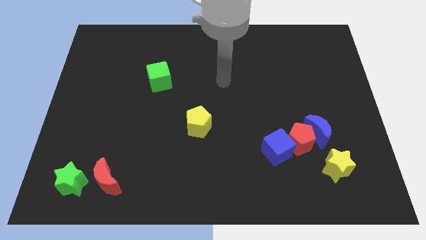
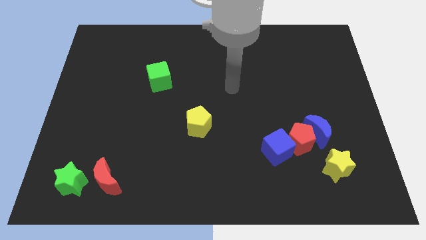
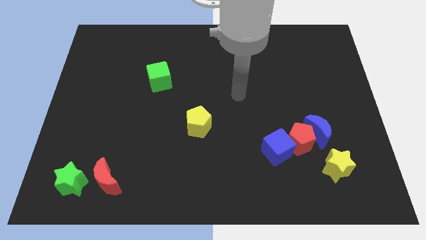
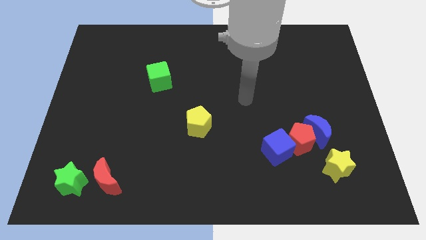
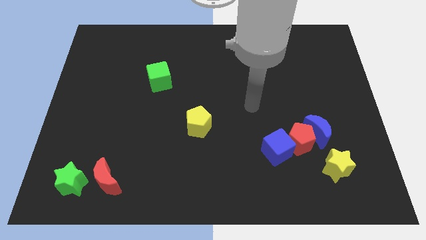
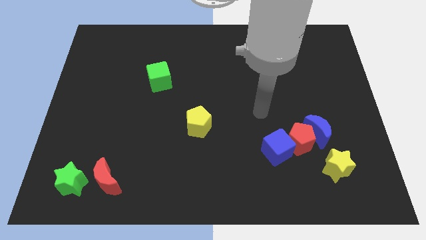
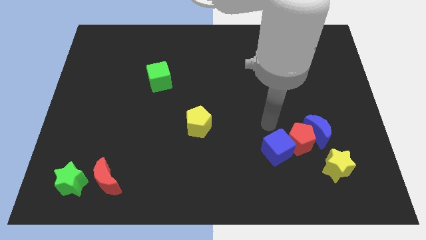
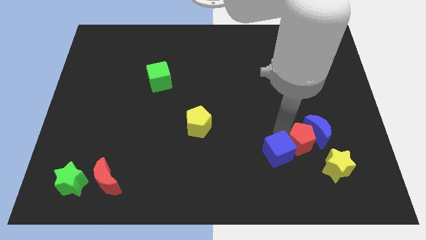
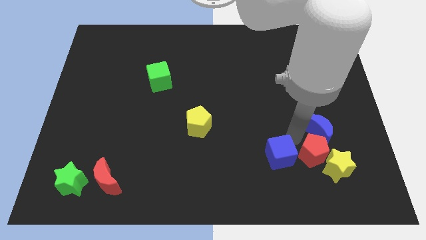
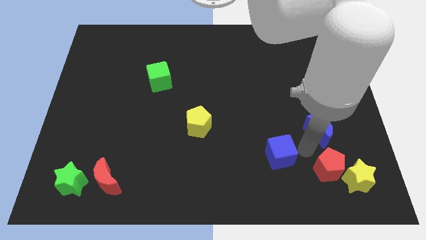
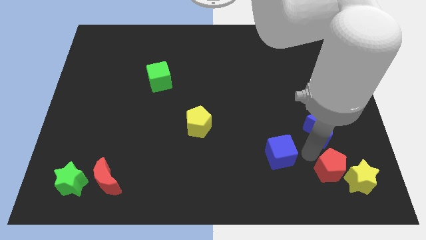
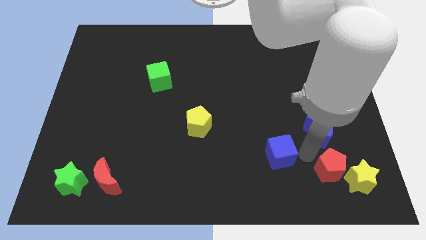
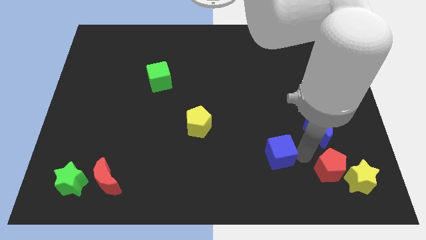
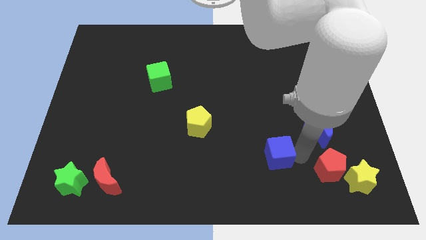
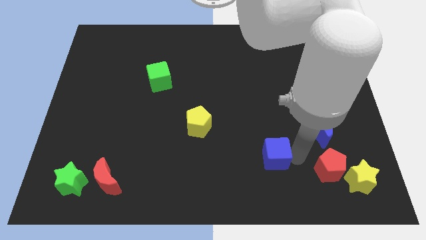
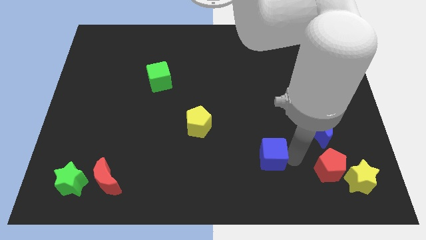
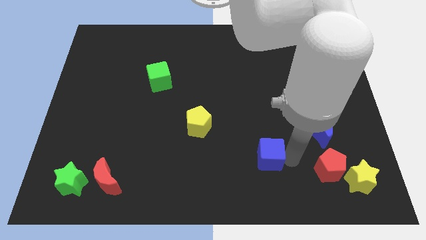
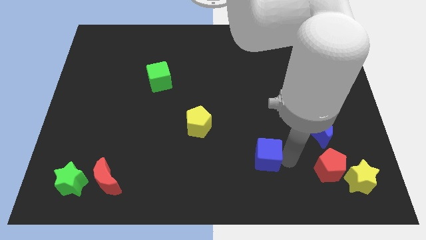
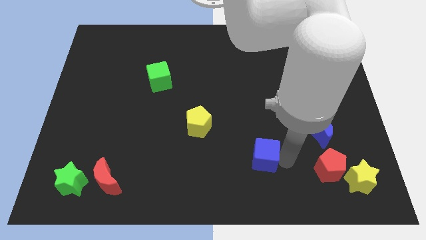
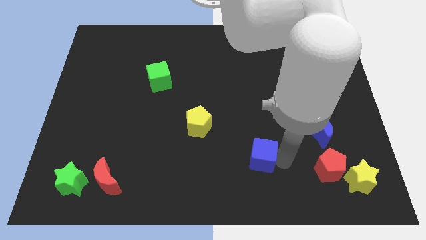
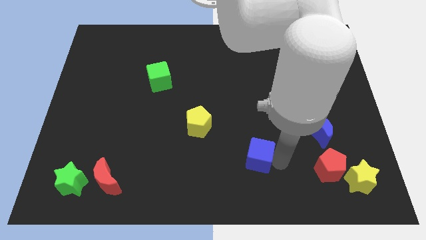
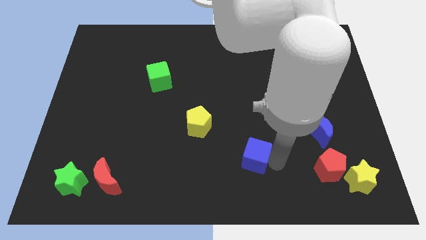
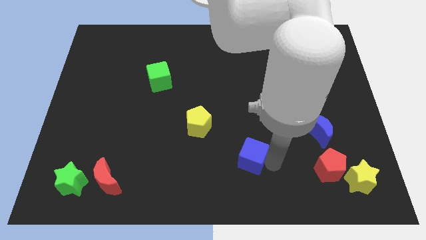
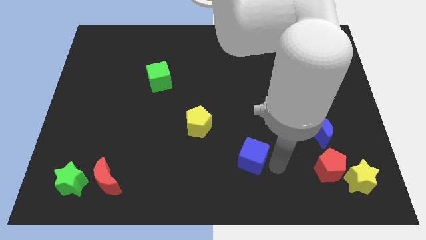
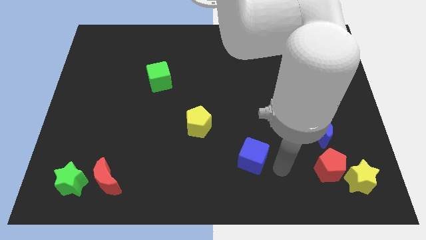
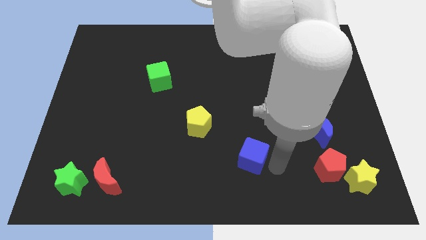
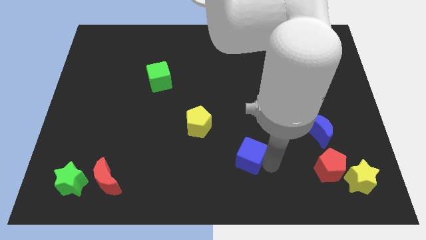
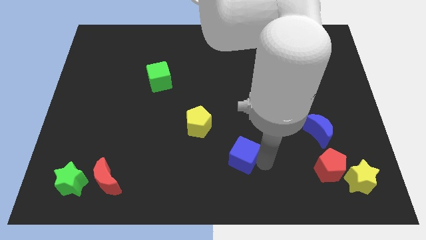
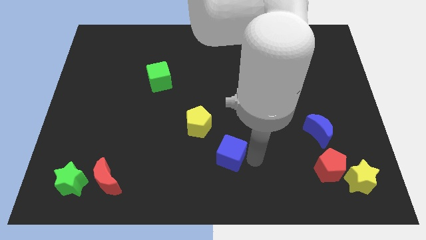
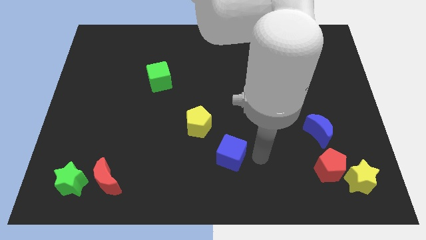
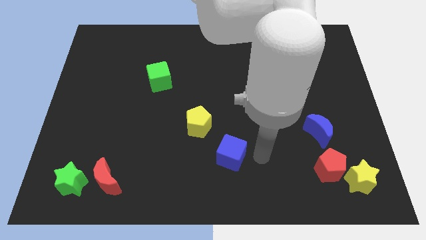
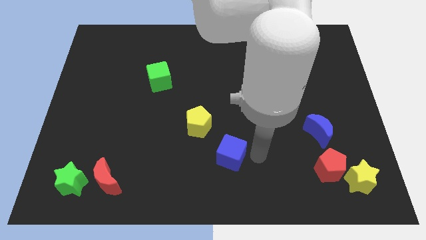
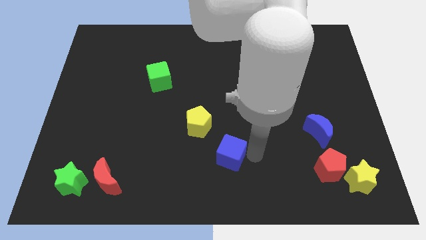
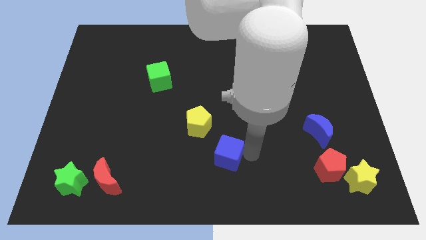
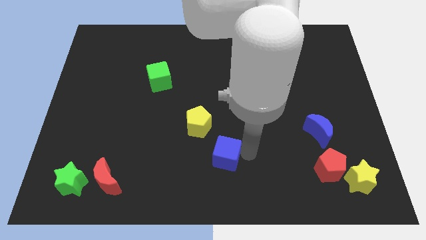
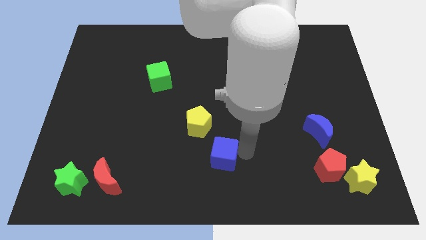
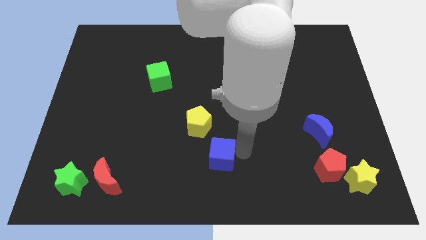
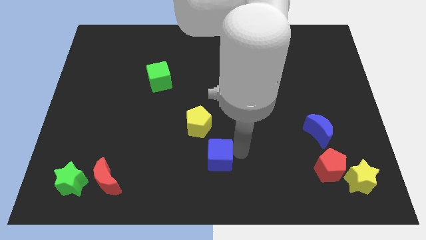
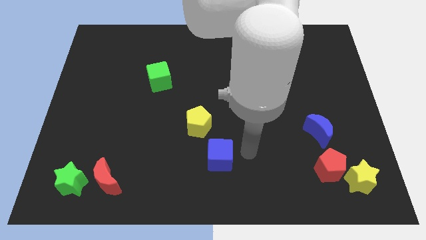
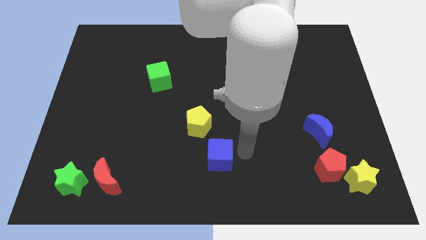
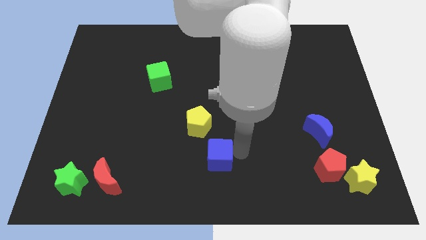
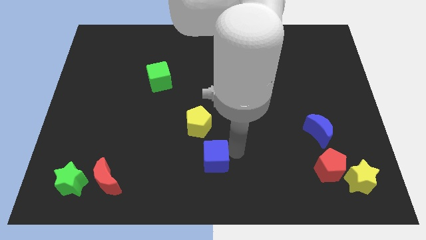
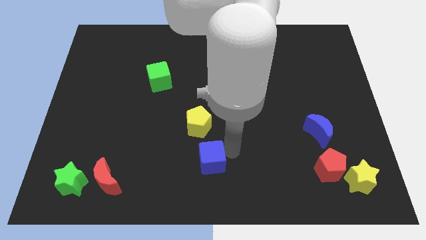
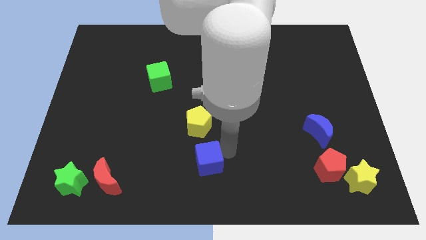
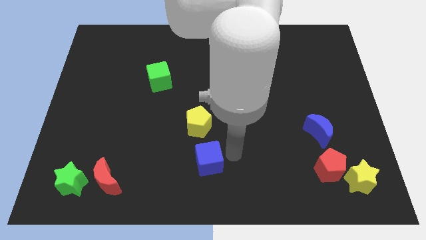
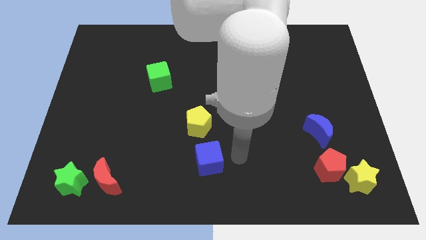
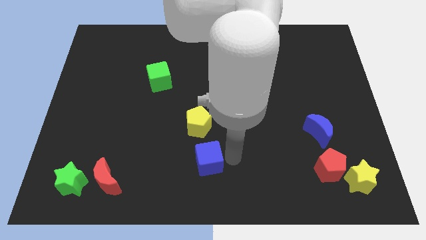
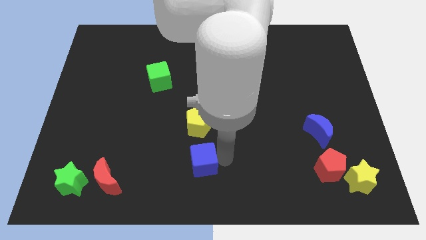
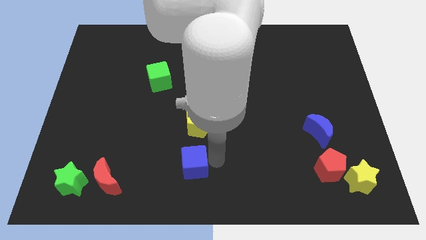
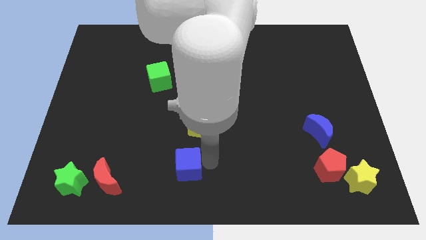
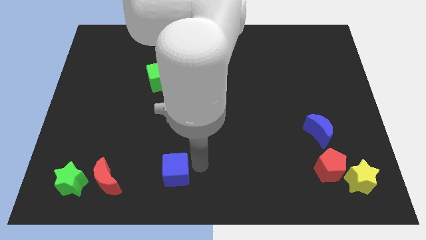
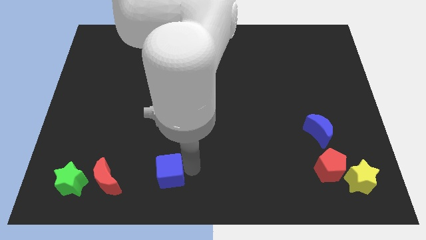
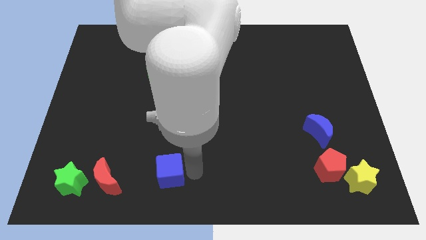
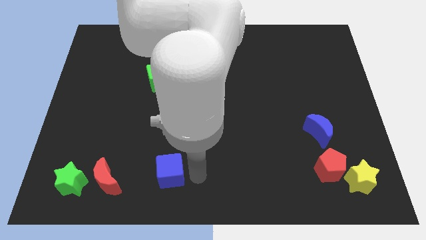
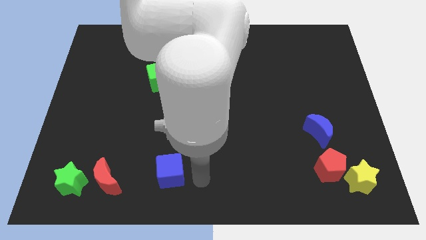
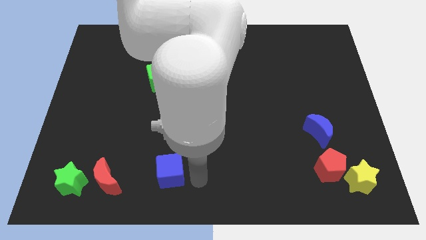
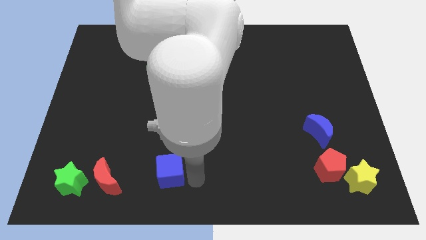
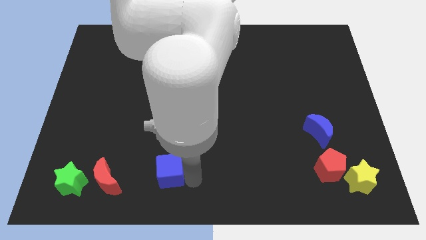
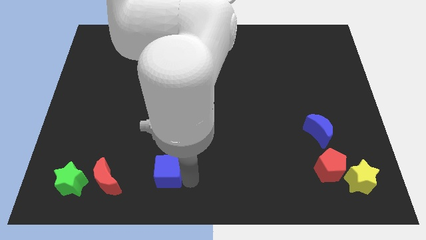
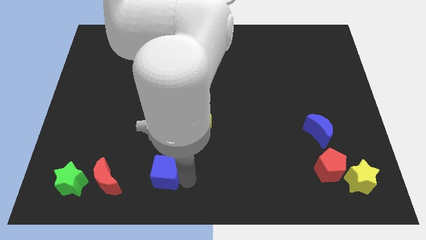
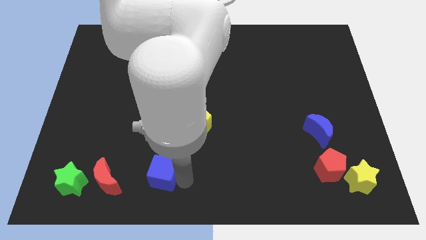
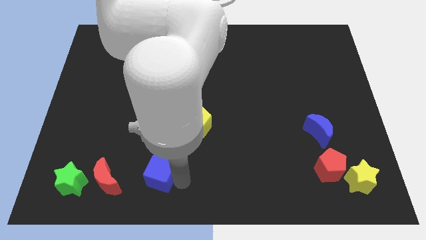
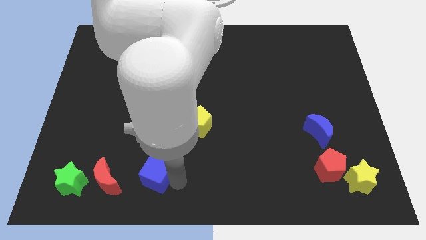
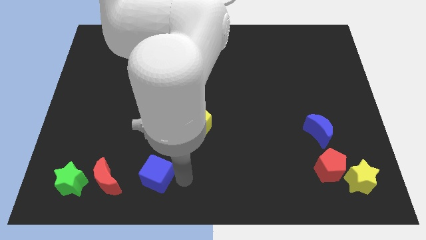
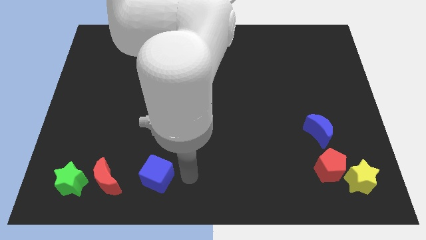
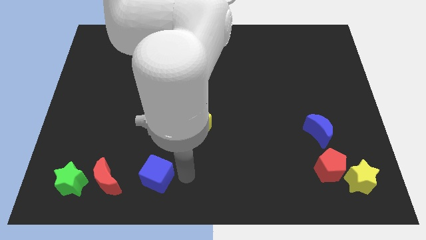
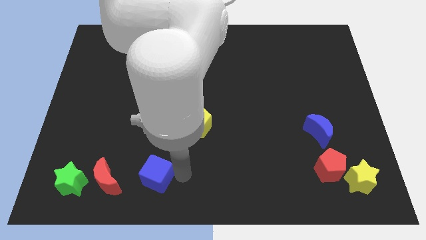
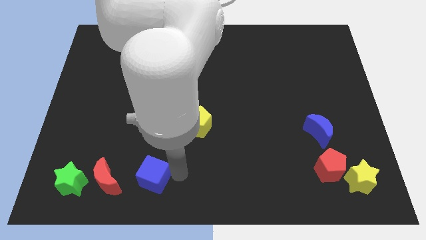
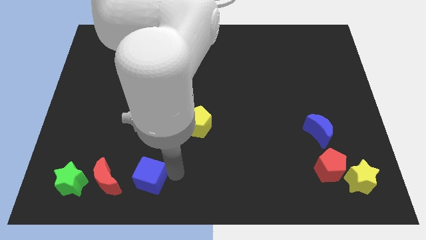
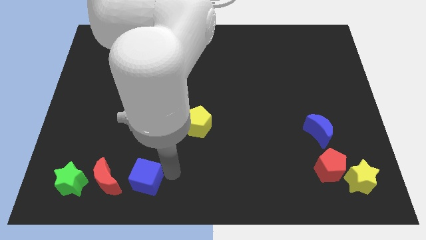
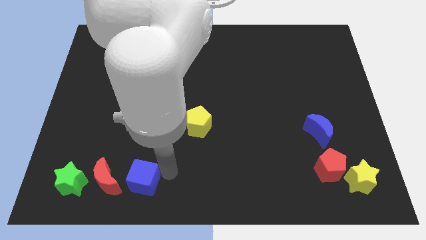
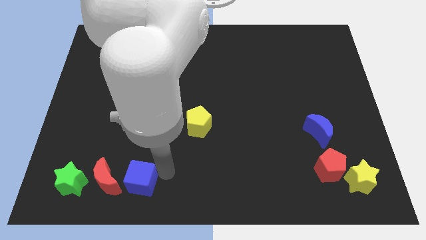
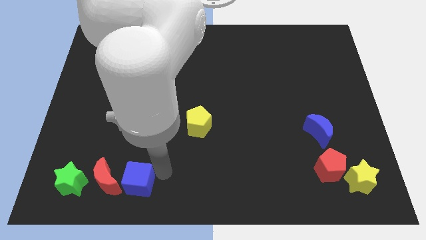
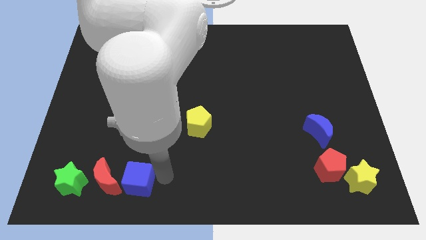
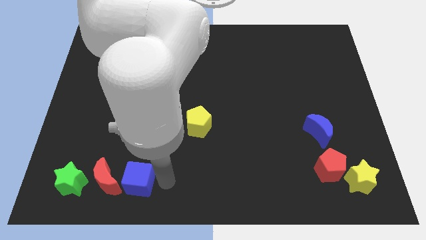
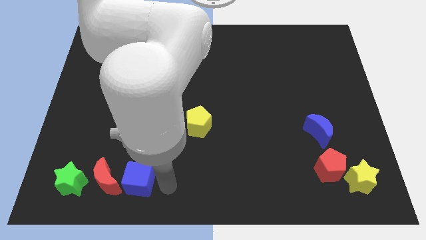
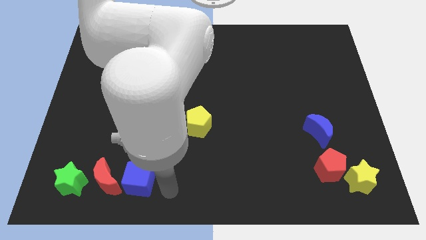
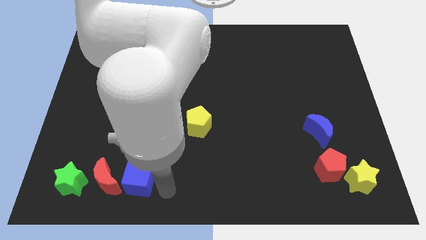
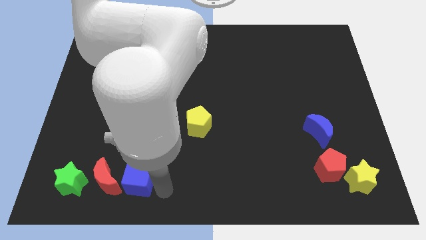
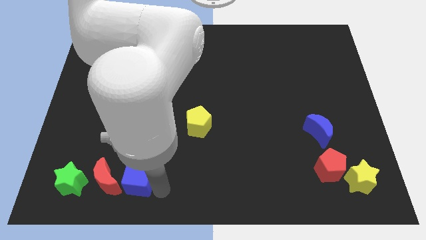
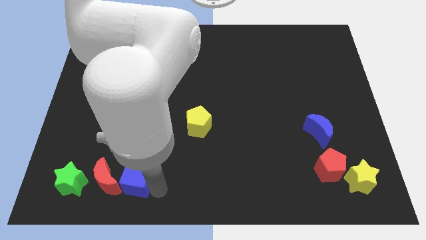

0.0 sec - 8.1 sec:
put the blue cube close to the red moon
